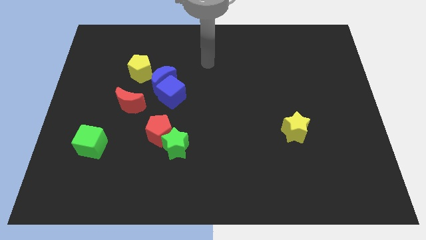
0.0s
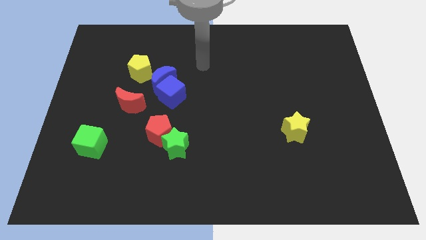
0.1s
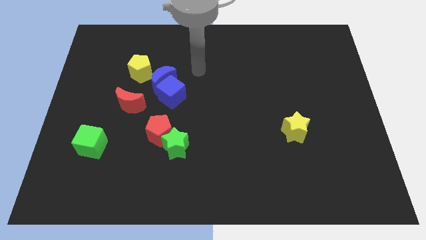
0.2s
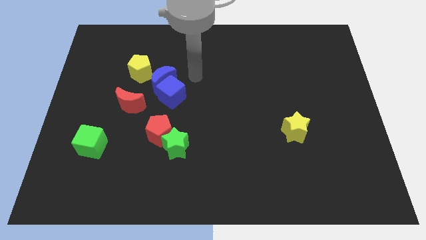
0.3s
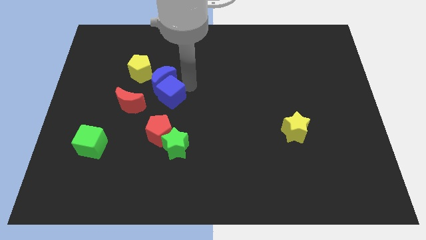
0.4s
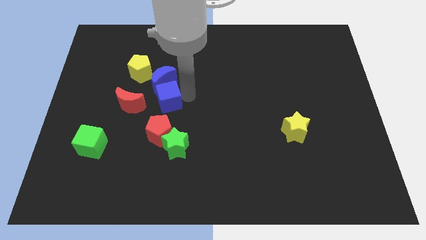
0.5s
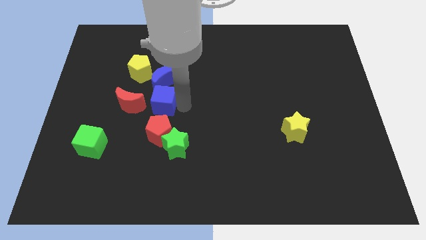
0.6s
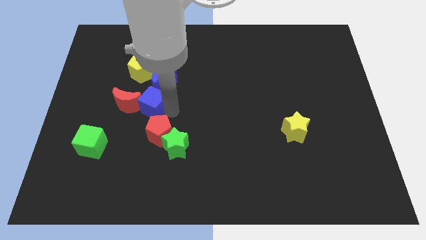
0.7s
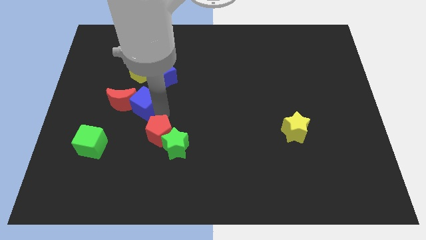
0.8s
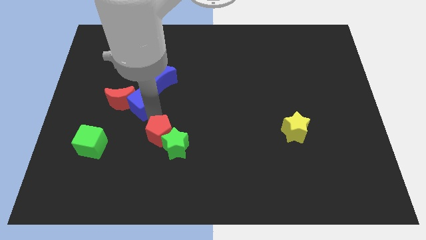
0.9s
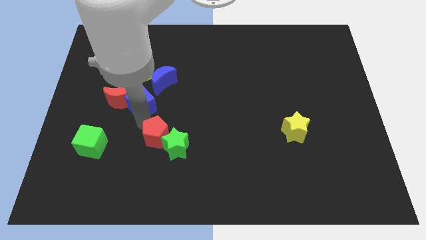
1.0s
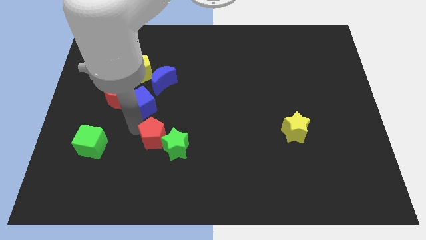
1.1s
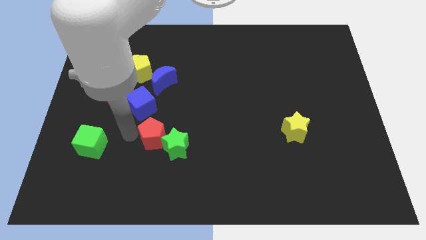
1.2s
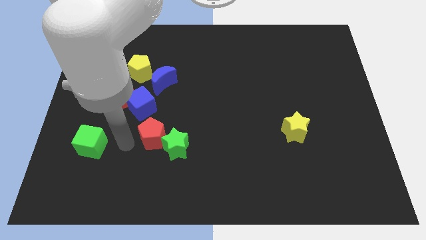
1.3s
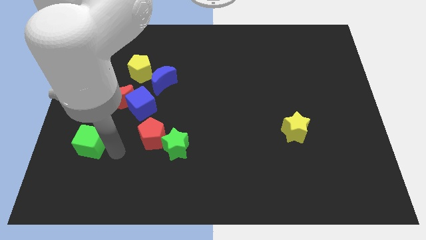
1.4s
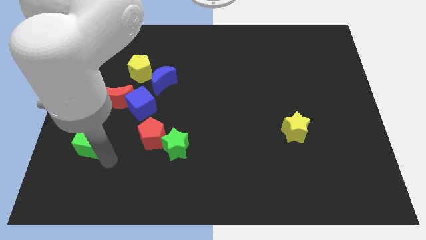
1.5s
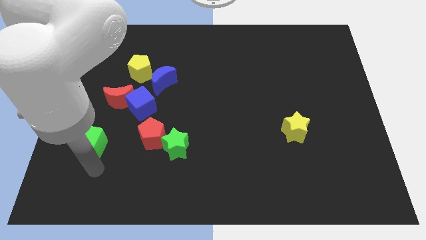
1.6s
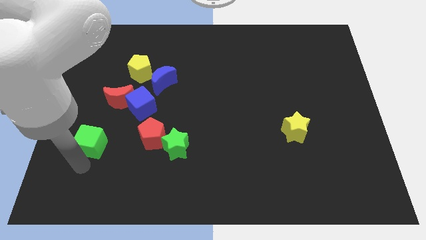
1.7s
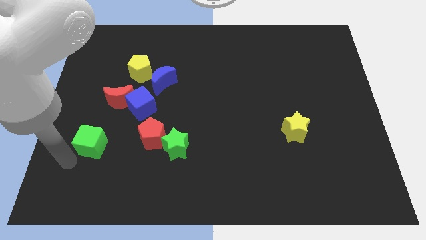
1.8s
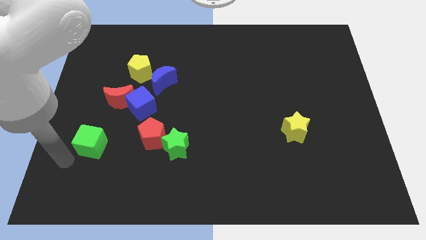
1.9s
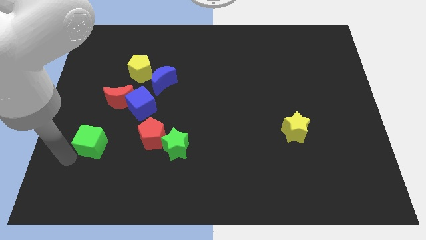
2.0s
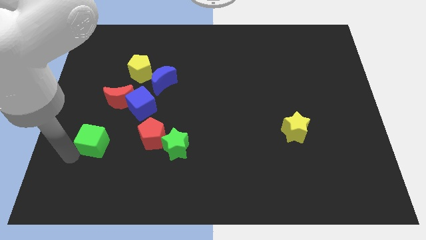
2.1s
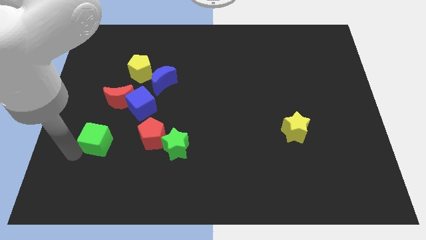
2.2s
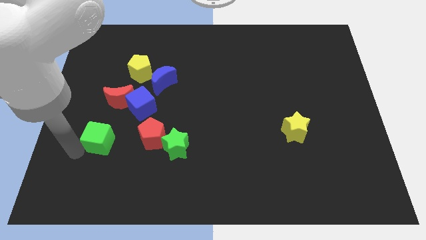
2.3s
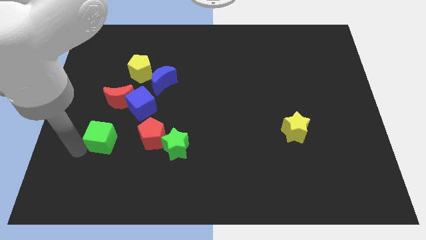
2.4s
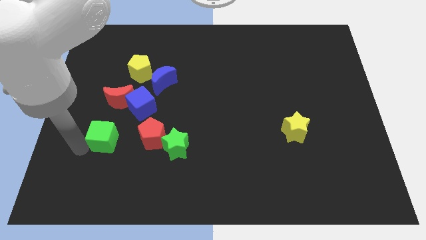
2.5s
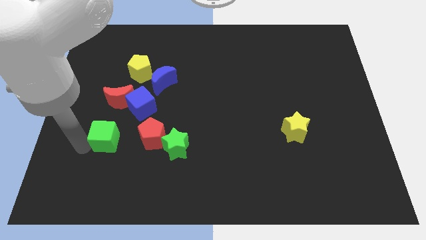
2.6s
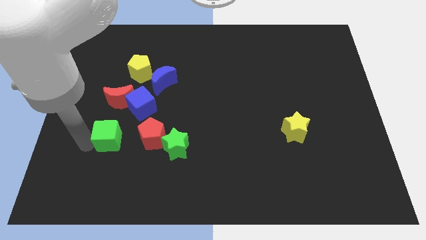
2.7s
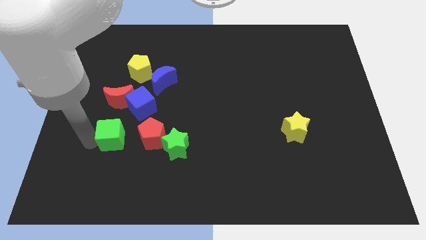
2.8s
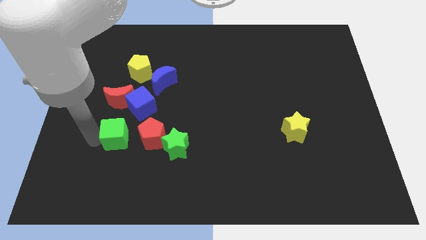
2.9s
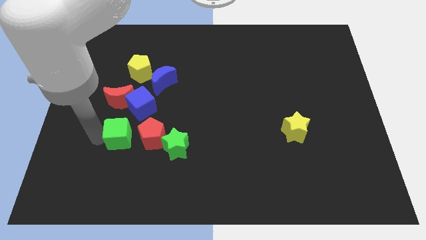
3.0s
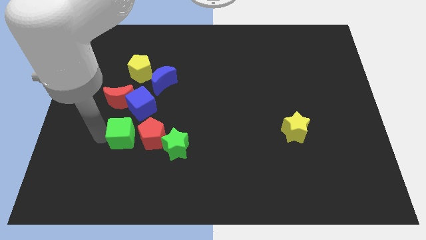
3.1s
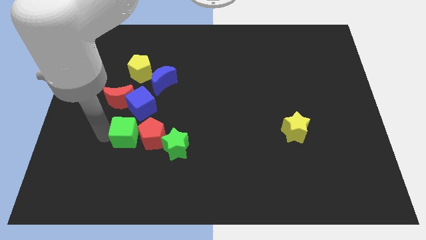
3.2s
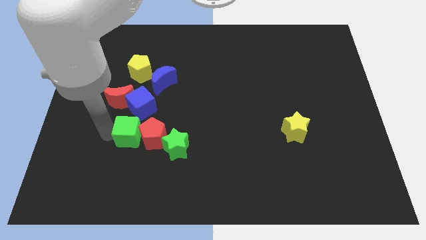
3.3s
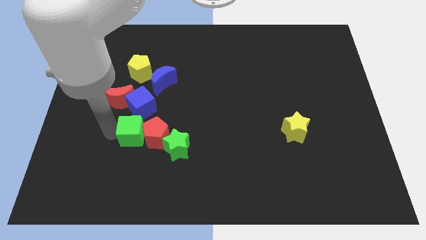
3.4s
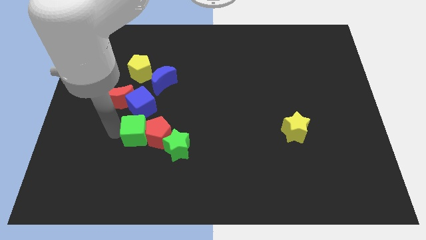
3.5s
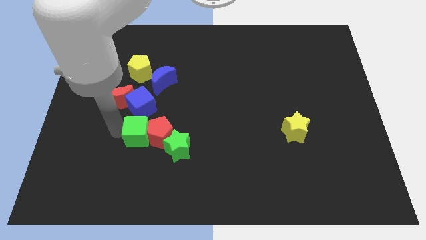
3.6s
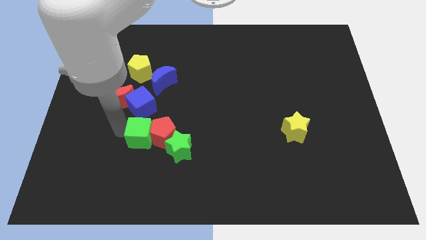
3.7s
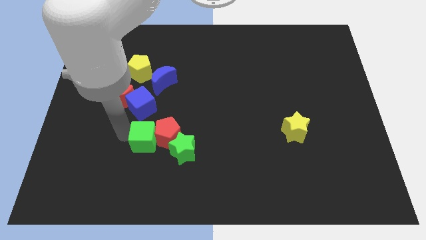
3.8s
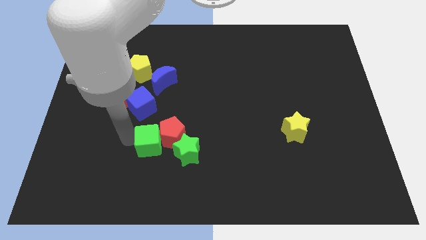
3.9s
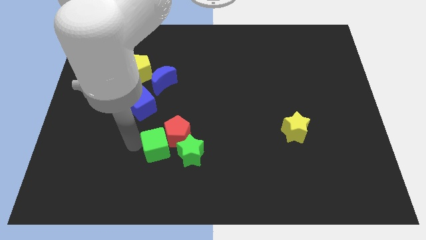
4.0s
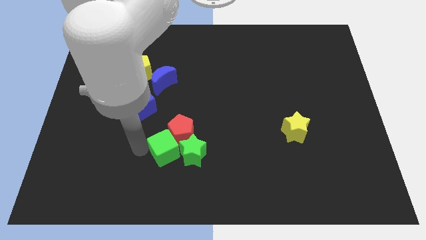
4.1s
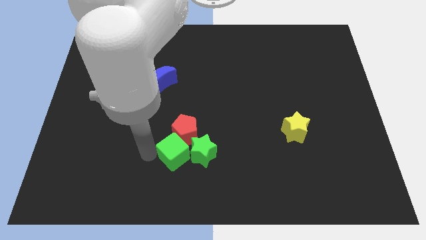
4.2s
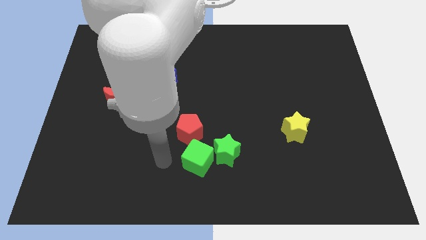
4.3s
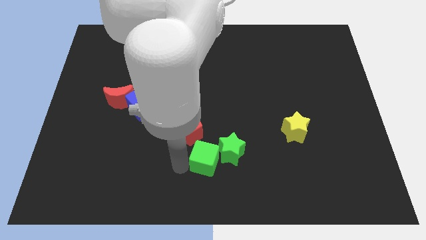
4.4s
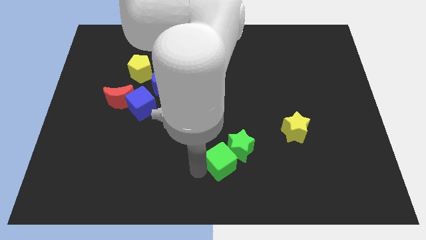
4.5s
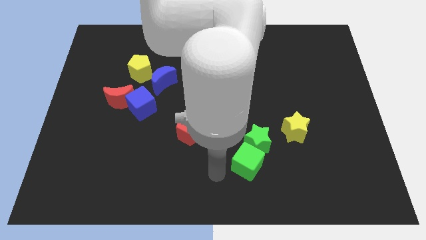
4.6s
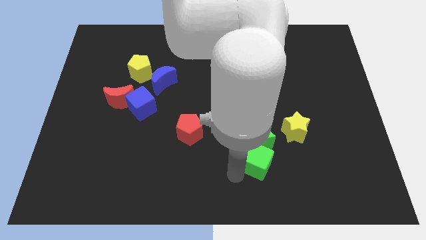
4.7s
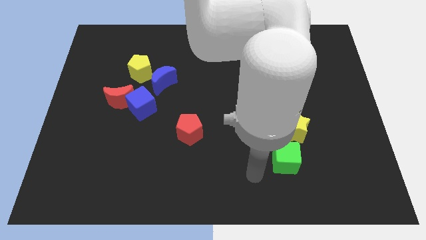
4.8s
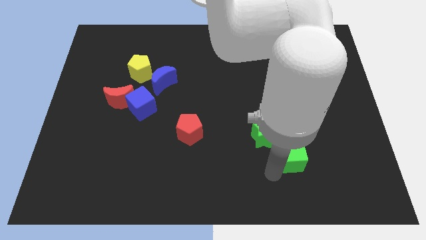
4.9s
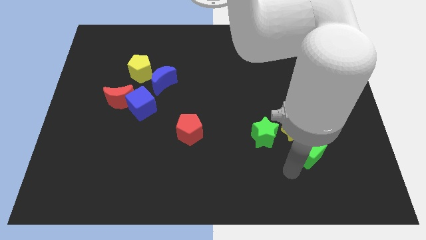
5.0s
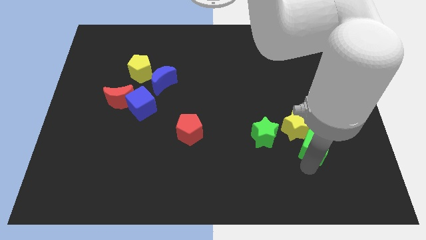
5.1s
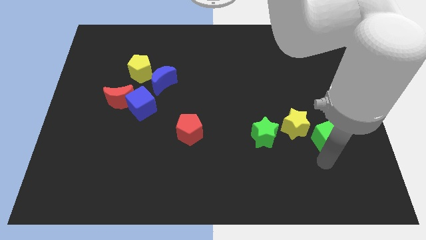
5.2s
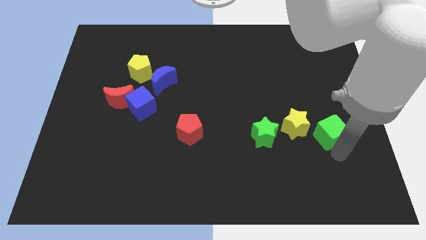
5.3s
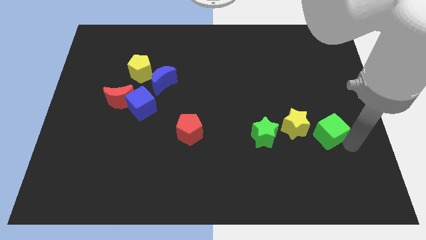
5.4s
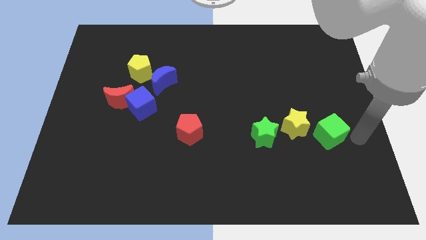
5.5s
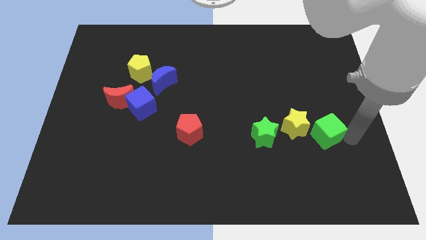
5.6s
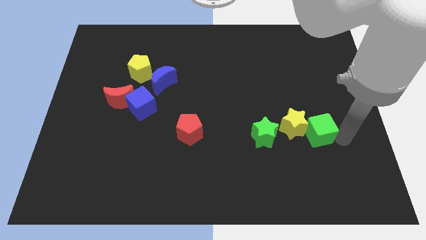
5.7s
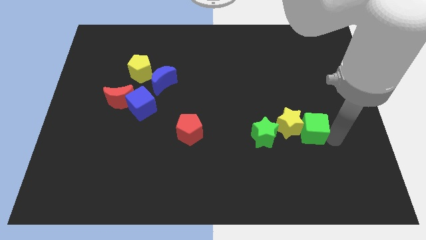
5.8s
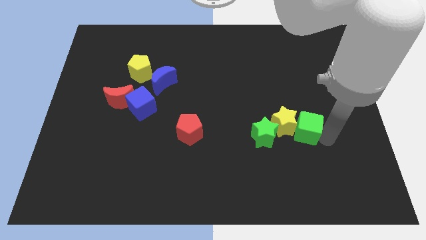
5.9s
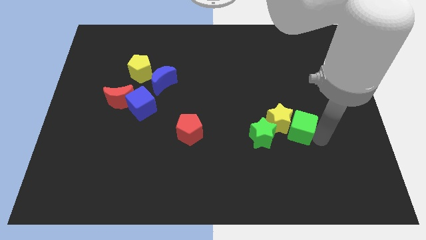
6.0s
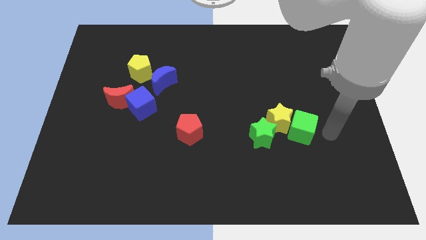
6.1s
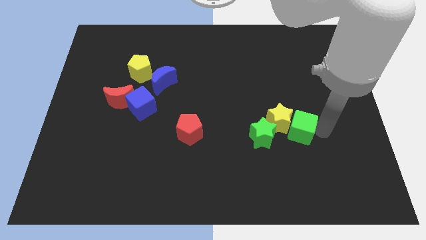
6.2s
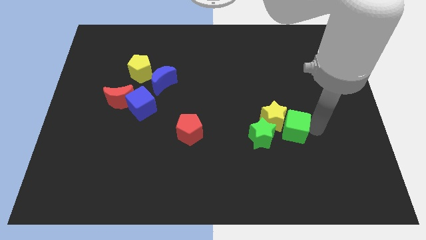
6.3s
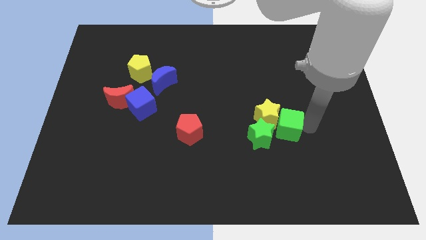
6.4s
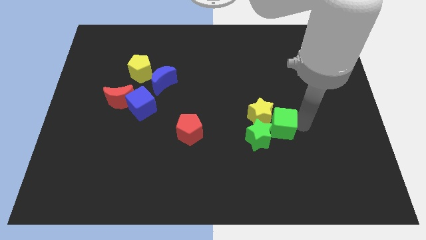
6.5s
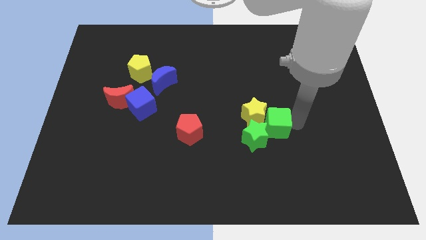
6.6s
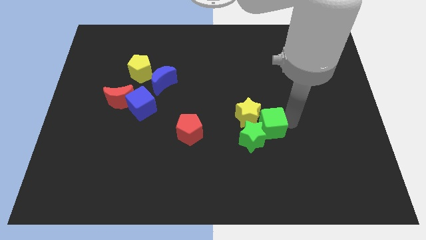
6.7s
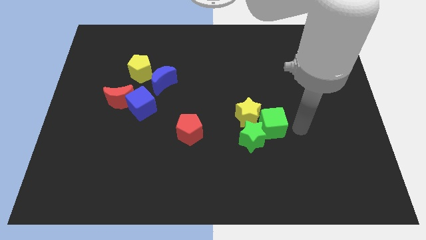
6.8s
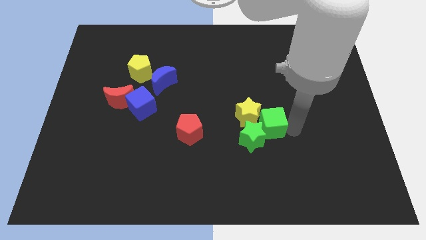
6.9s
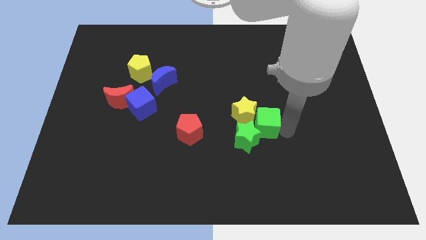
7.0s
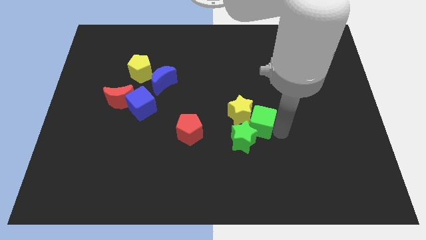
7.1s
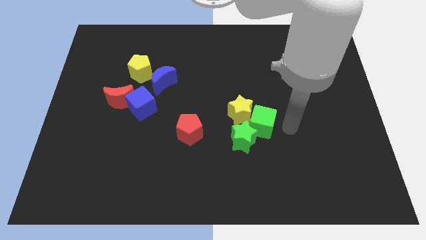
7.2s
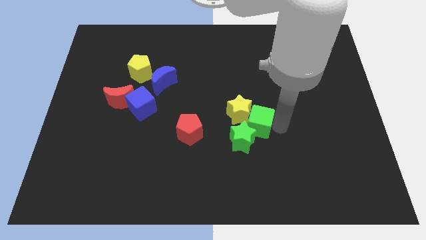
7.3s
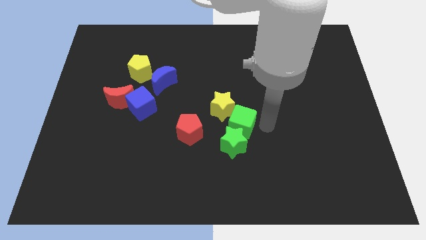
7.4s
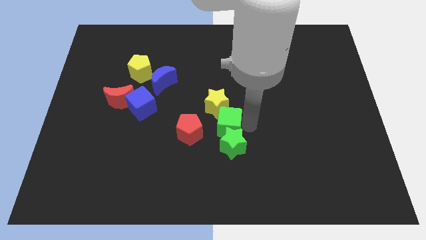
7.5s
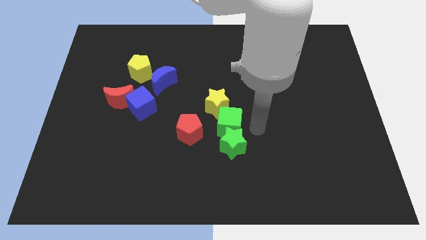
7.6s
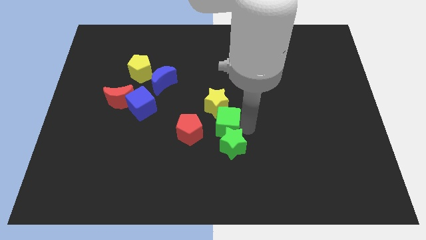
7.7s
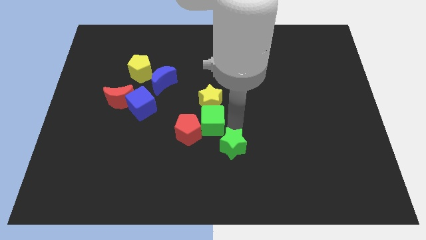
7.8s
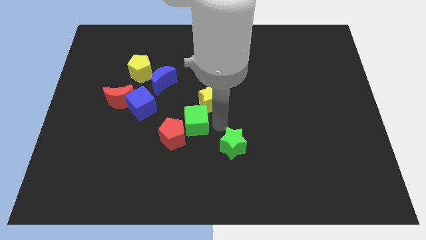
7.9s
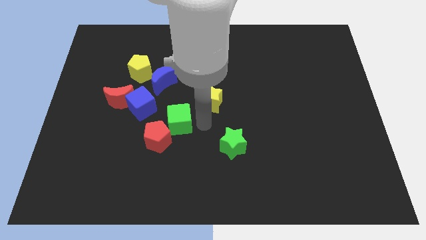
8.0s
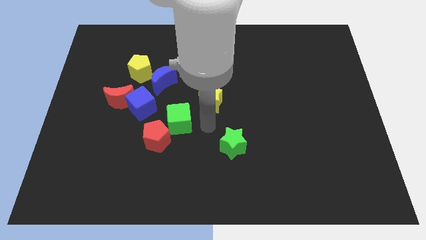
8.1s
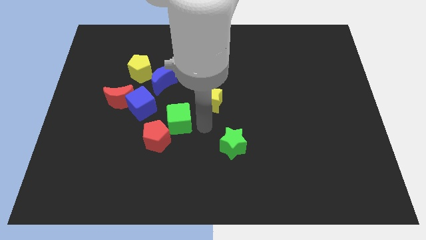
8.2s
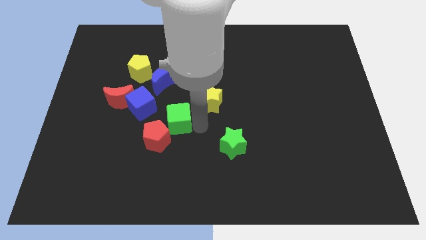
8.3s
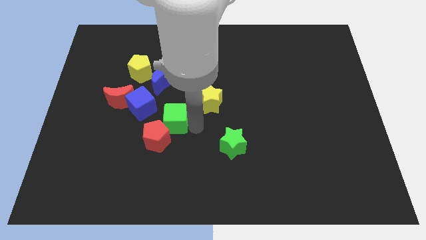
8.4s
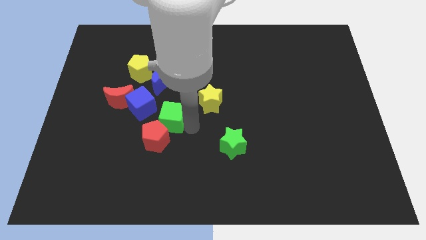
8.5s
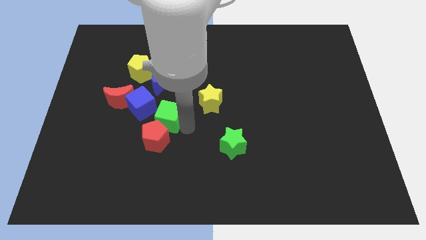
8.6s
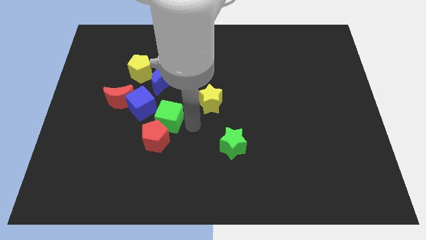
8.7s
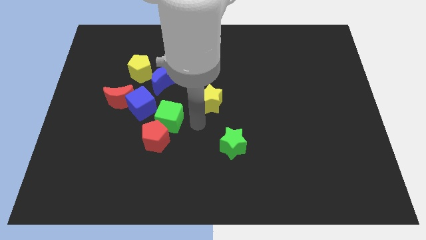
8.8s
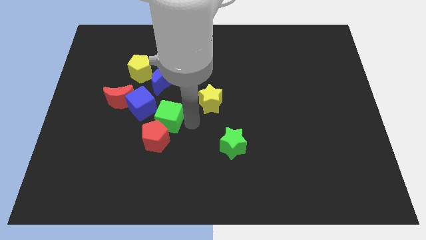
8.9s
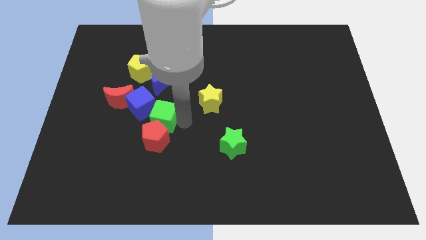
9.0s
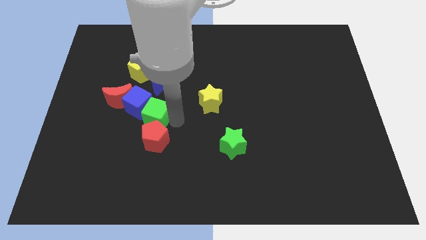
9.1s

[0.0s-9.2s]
push the green cube to the blue cube
